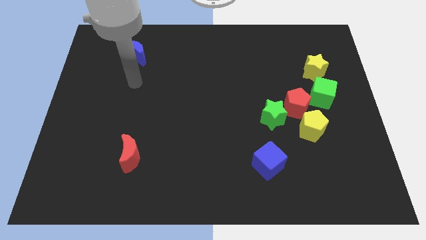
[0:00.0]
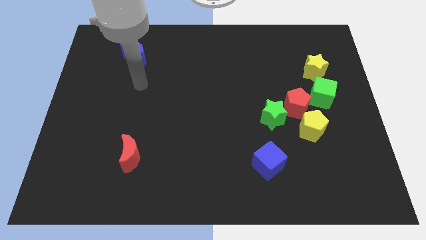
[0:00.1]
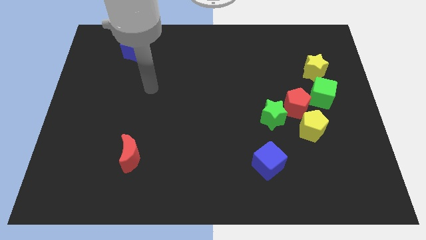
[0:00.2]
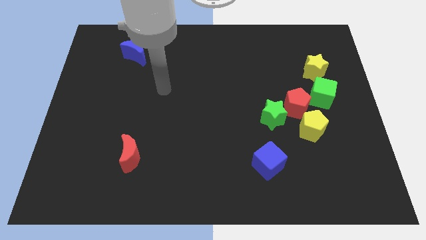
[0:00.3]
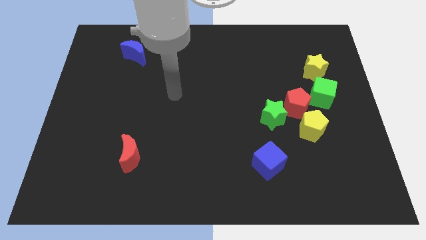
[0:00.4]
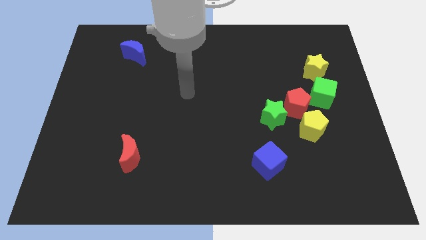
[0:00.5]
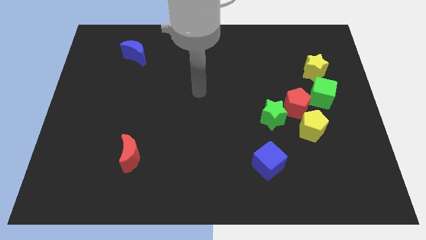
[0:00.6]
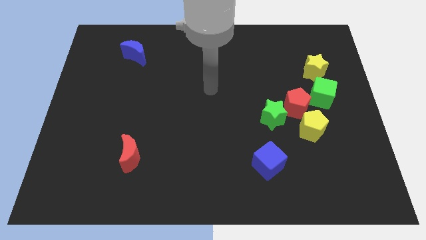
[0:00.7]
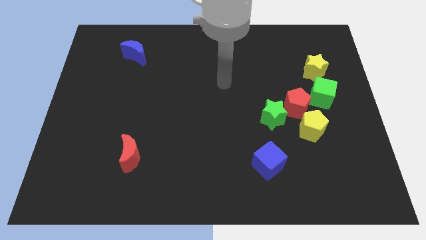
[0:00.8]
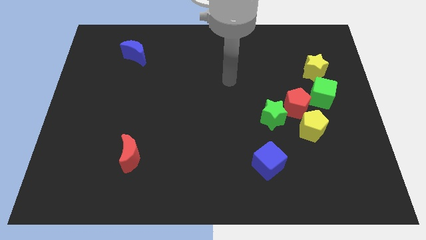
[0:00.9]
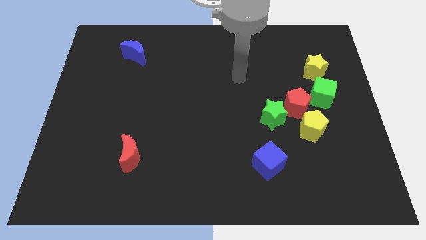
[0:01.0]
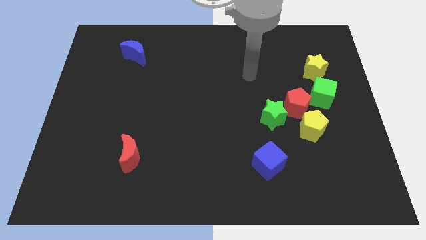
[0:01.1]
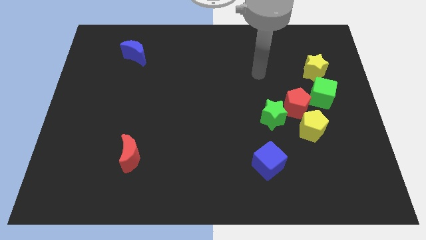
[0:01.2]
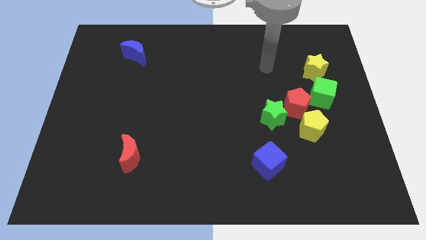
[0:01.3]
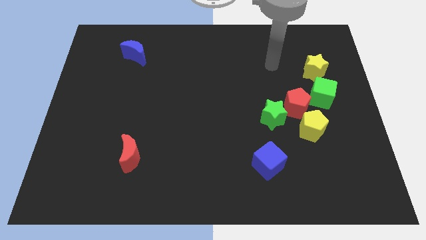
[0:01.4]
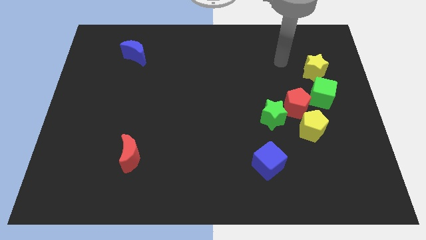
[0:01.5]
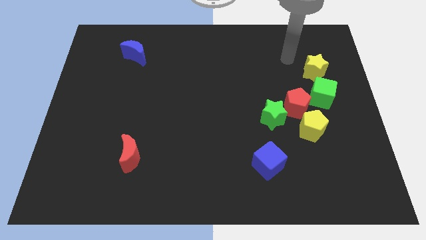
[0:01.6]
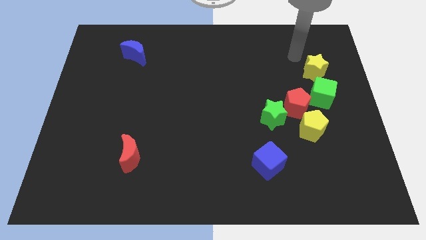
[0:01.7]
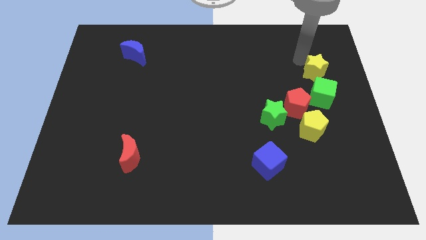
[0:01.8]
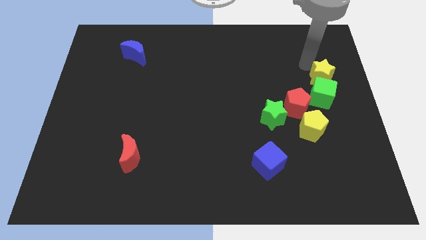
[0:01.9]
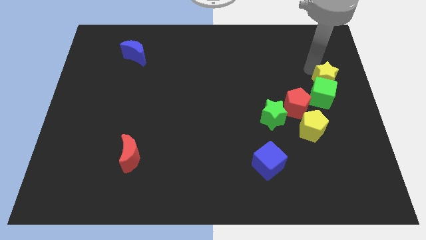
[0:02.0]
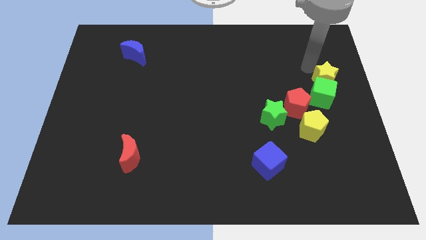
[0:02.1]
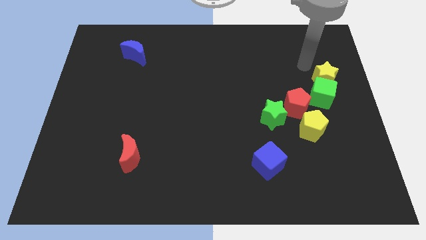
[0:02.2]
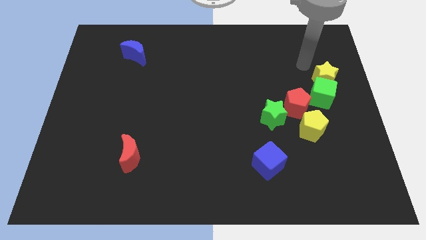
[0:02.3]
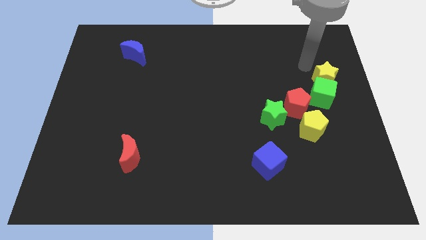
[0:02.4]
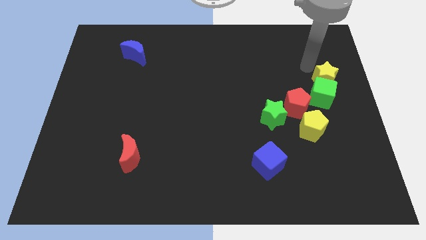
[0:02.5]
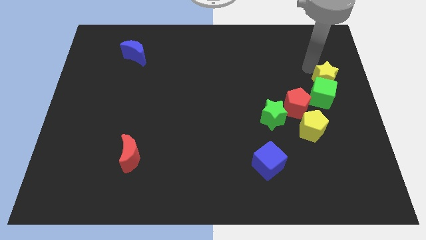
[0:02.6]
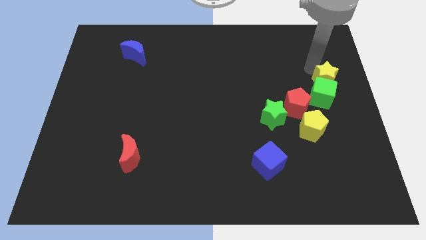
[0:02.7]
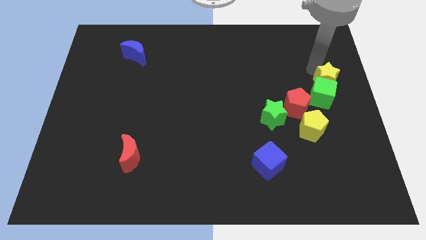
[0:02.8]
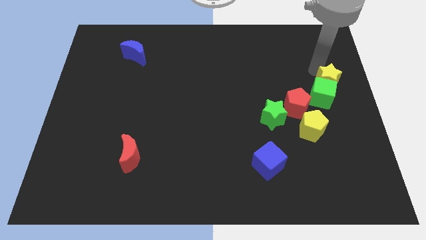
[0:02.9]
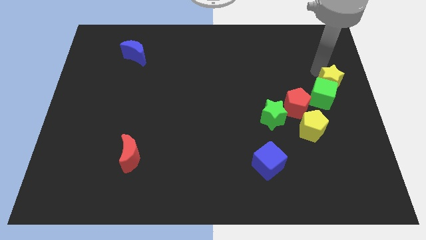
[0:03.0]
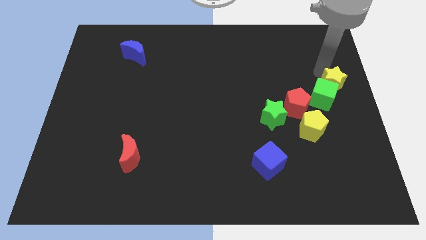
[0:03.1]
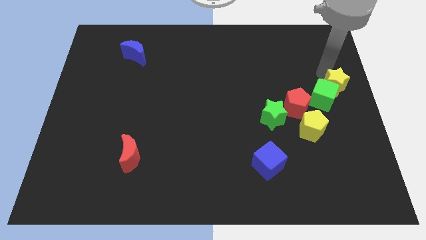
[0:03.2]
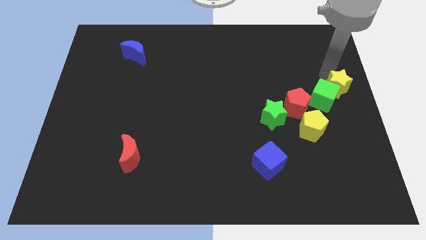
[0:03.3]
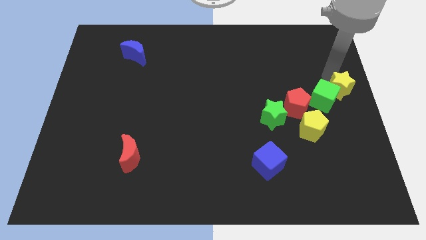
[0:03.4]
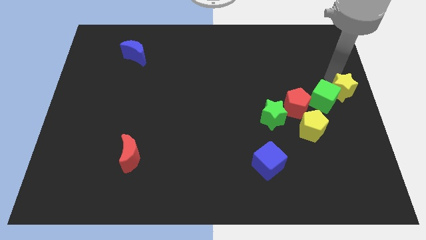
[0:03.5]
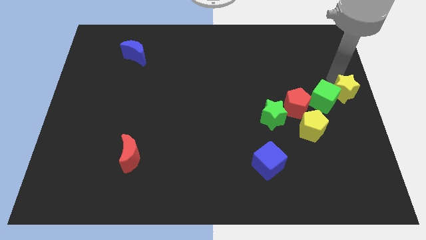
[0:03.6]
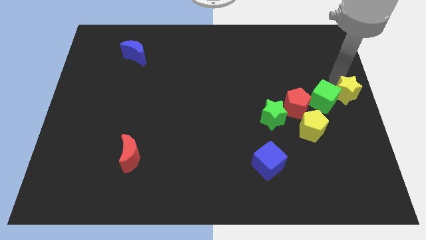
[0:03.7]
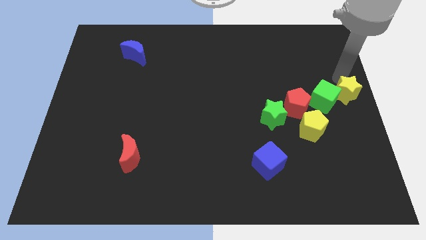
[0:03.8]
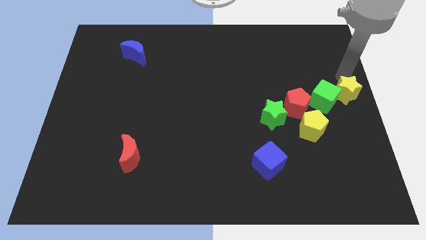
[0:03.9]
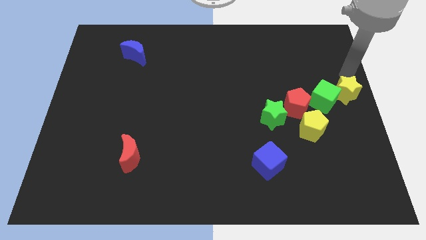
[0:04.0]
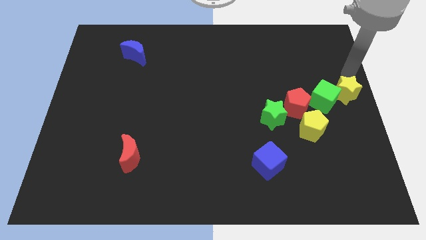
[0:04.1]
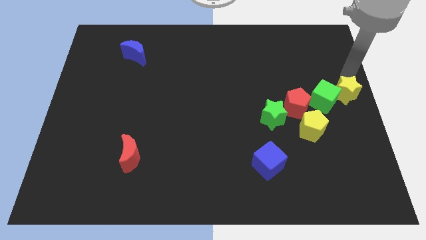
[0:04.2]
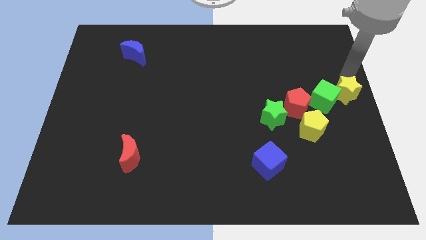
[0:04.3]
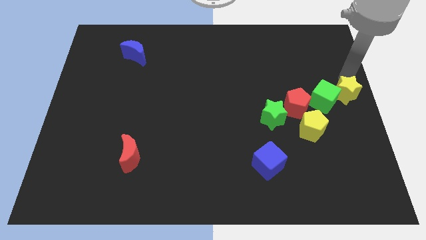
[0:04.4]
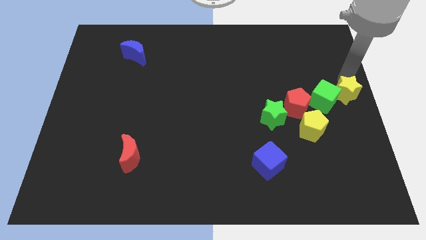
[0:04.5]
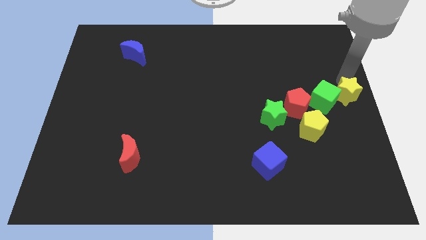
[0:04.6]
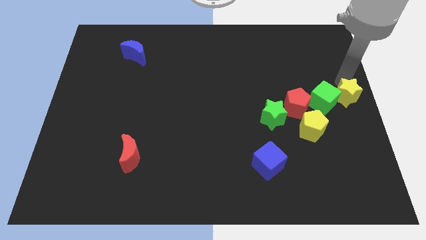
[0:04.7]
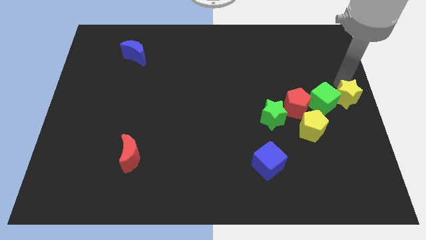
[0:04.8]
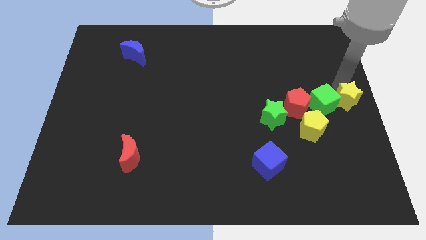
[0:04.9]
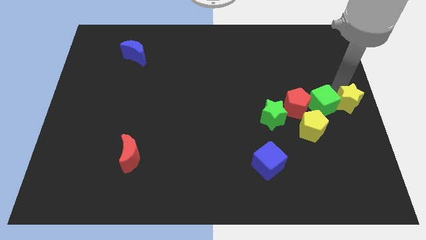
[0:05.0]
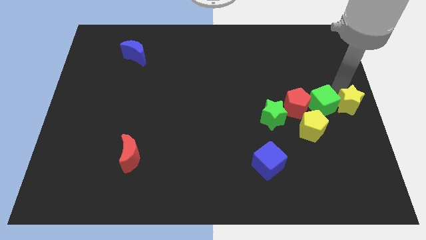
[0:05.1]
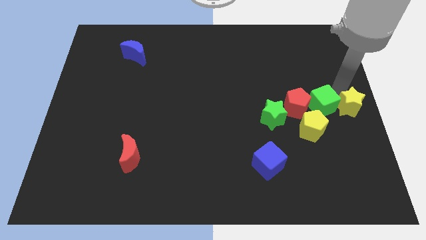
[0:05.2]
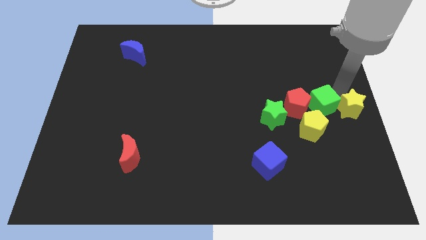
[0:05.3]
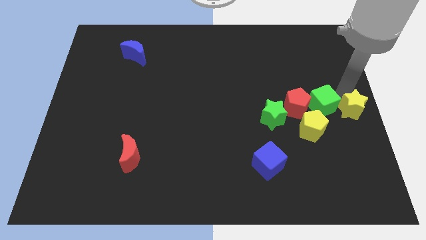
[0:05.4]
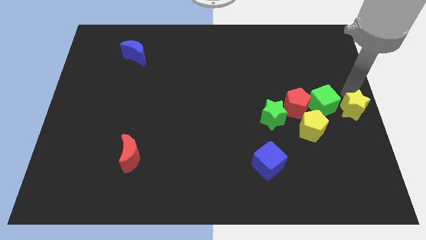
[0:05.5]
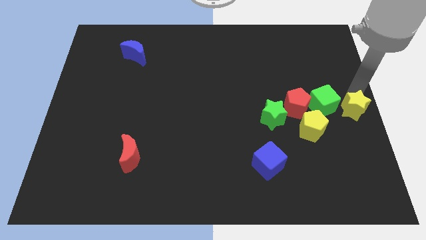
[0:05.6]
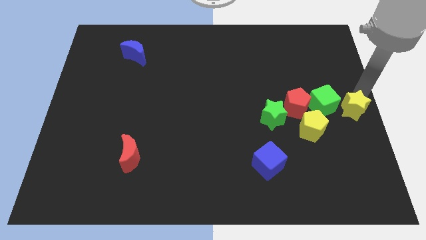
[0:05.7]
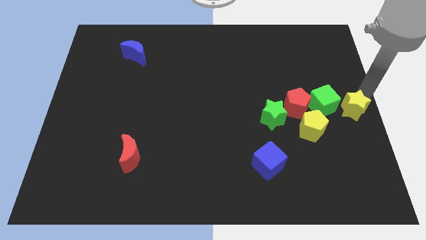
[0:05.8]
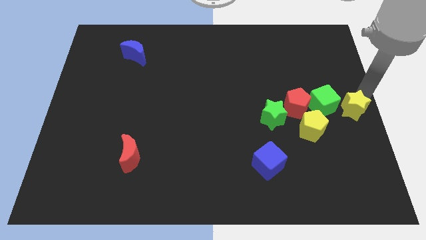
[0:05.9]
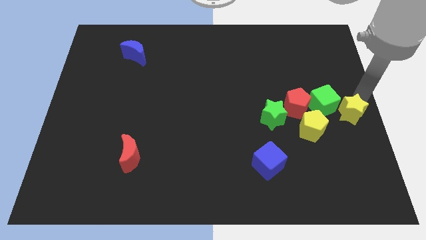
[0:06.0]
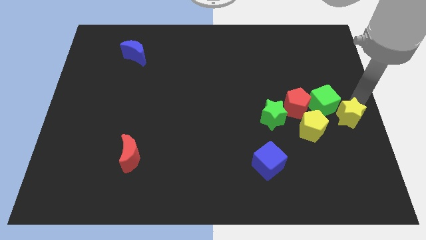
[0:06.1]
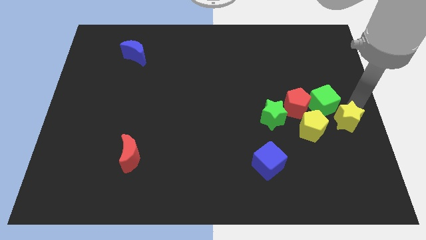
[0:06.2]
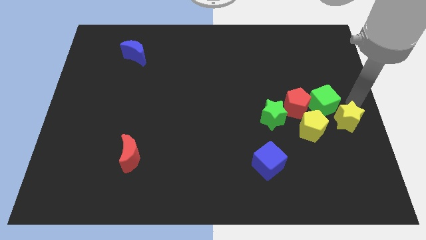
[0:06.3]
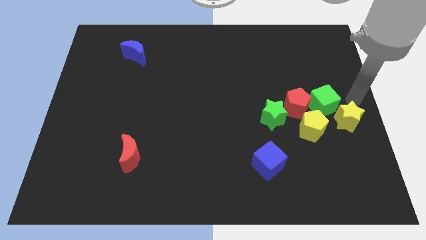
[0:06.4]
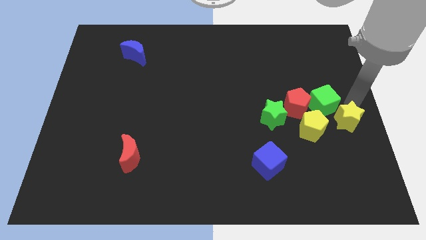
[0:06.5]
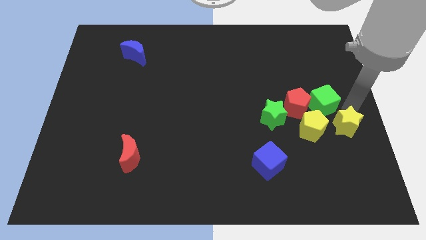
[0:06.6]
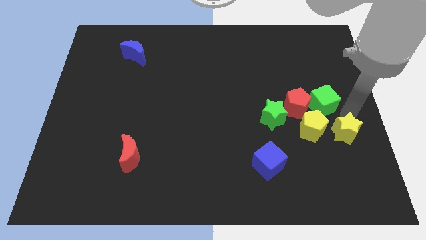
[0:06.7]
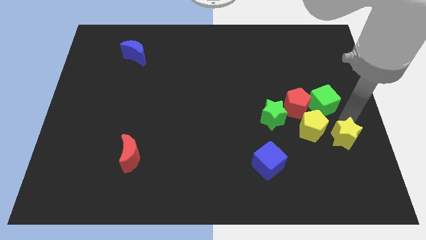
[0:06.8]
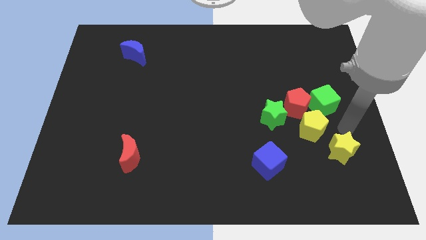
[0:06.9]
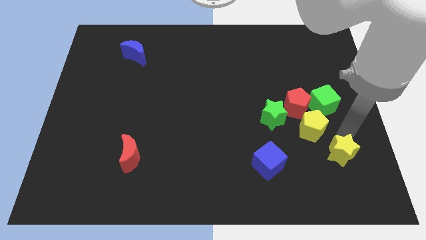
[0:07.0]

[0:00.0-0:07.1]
put the yellow star to the bottom side of the yellow pentagon
